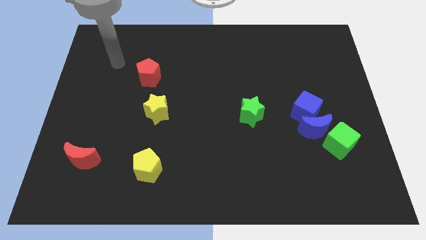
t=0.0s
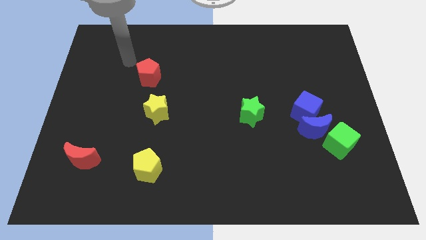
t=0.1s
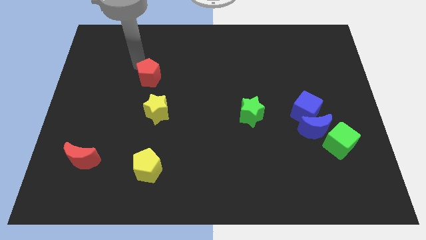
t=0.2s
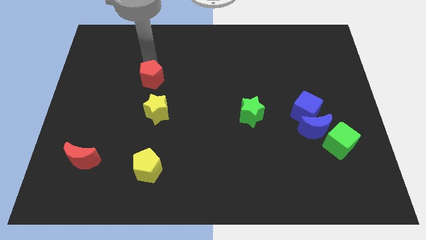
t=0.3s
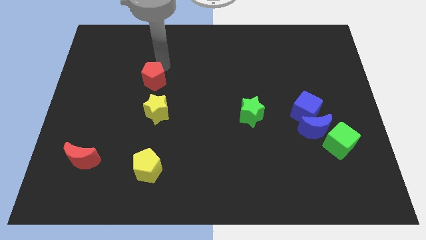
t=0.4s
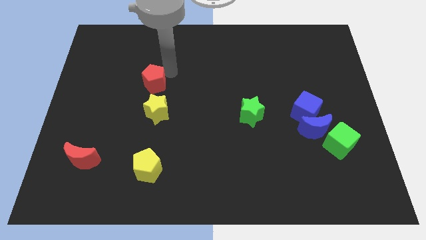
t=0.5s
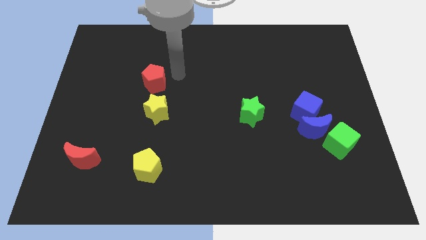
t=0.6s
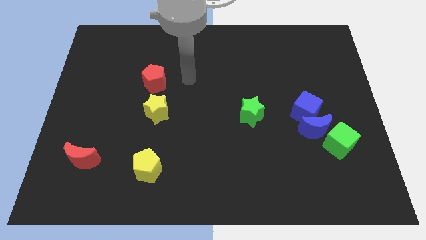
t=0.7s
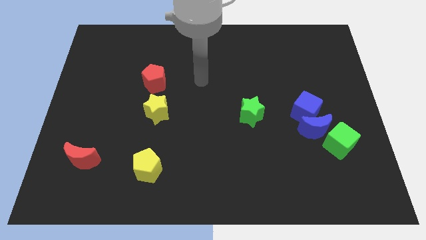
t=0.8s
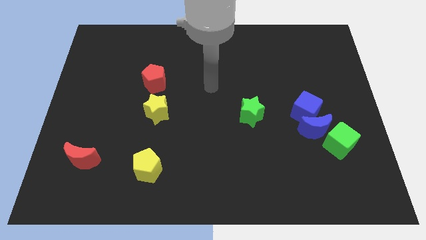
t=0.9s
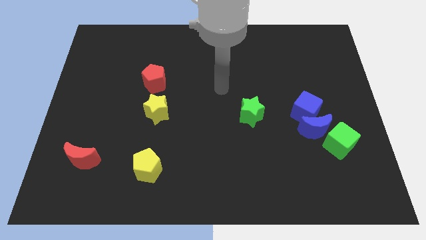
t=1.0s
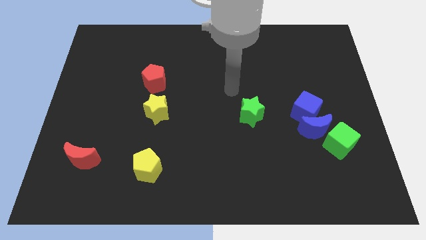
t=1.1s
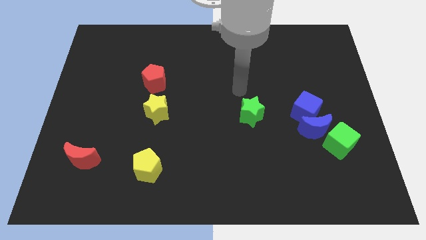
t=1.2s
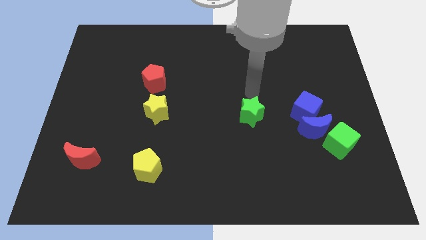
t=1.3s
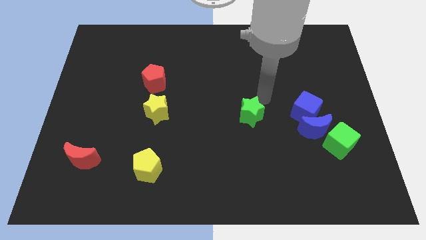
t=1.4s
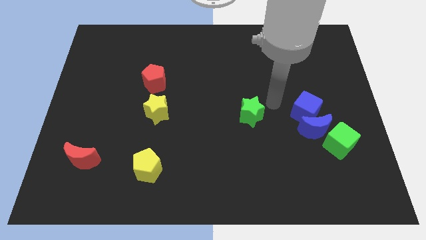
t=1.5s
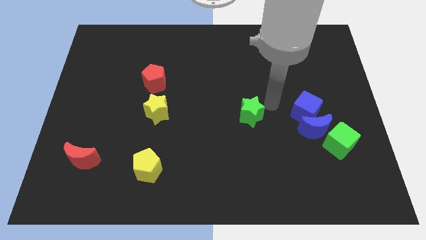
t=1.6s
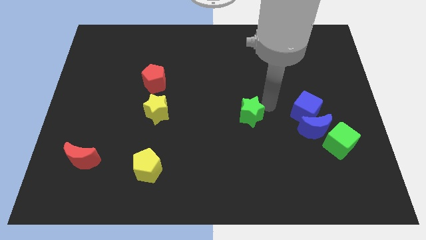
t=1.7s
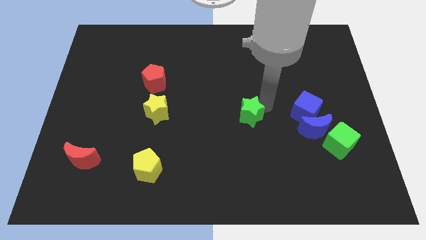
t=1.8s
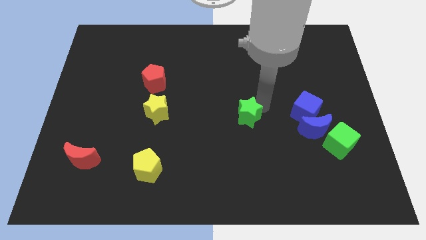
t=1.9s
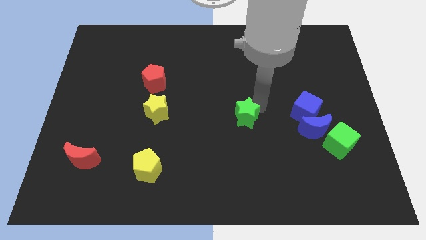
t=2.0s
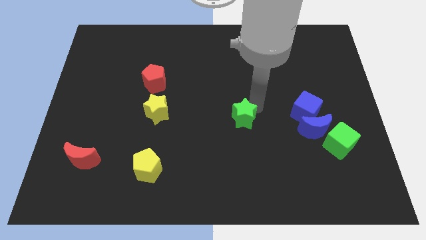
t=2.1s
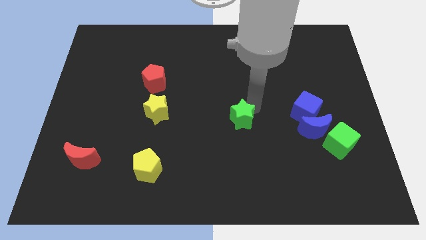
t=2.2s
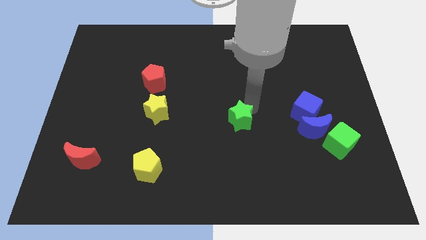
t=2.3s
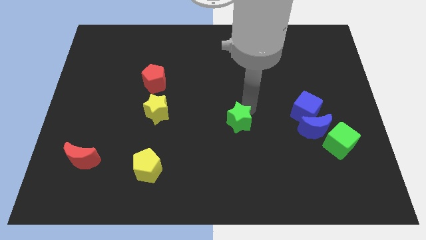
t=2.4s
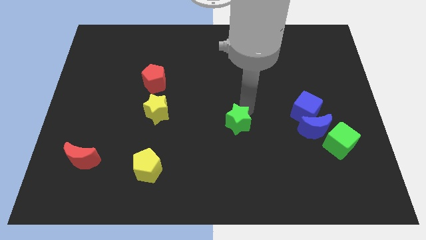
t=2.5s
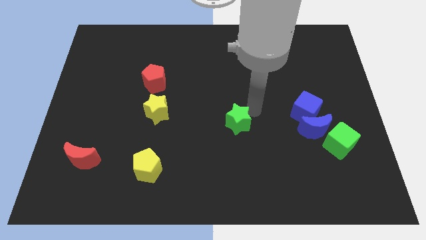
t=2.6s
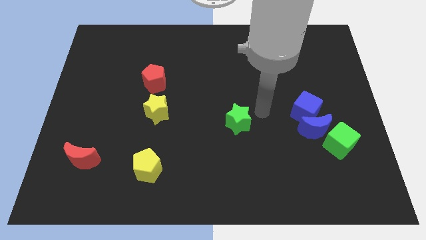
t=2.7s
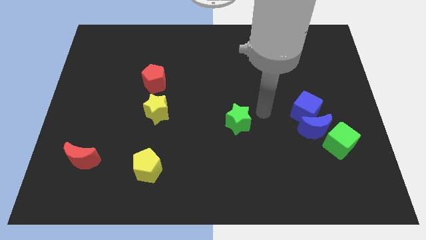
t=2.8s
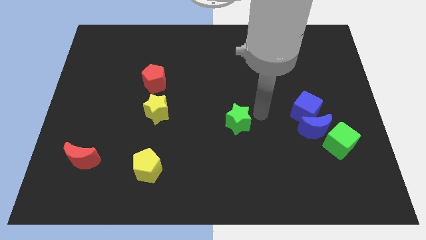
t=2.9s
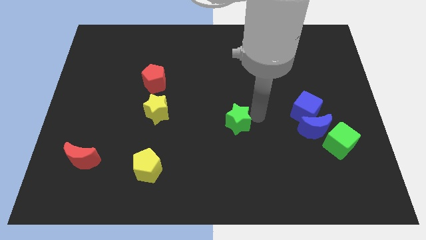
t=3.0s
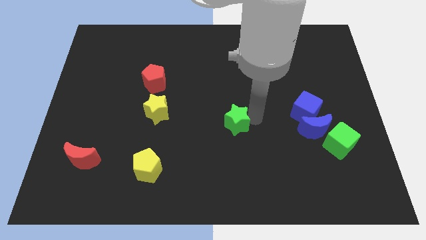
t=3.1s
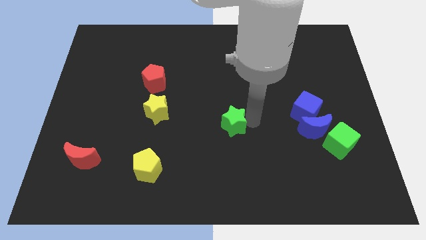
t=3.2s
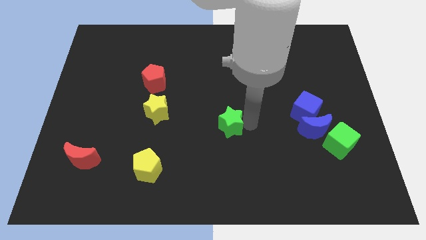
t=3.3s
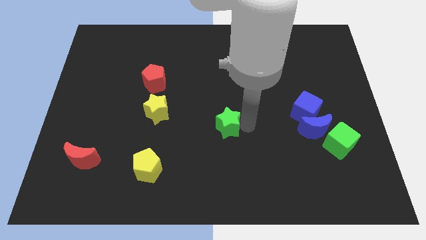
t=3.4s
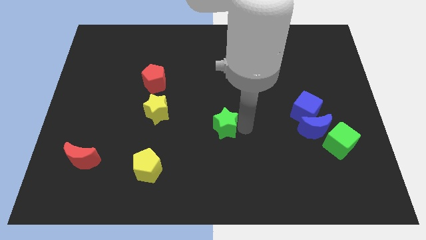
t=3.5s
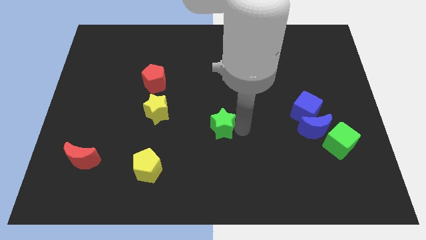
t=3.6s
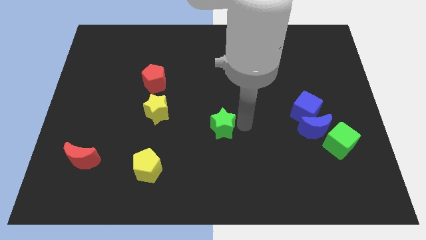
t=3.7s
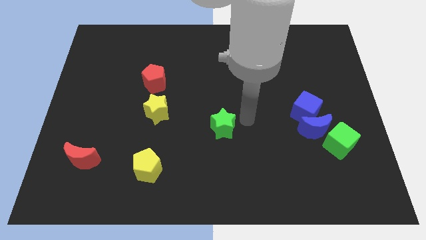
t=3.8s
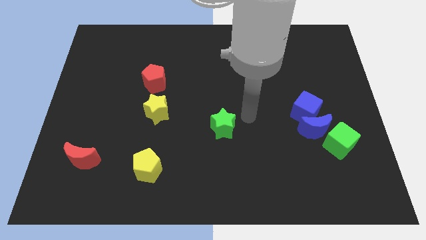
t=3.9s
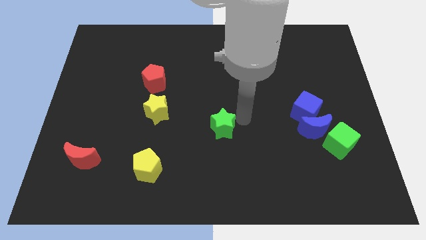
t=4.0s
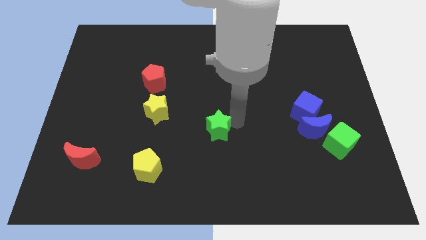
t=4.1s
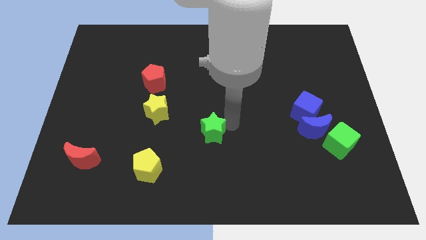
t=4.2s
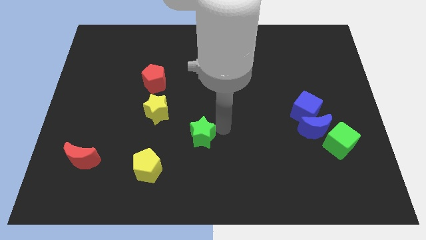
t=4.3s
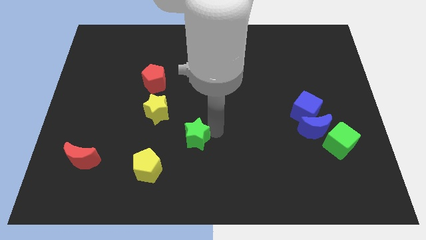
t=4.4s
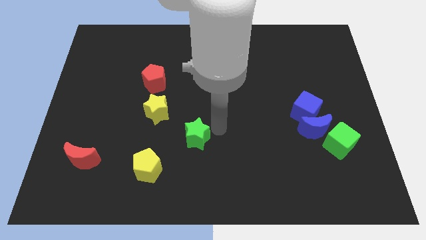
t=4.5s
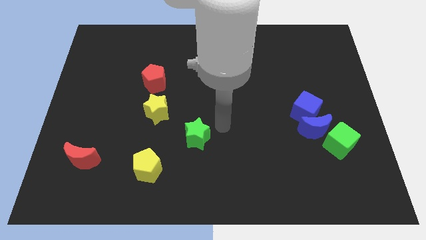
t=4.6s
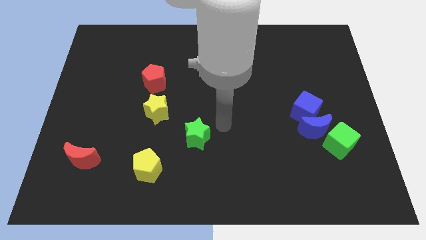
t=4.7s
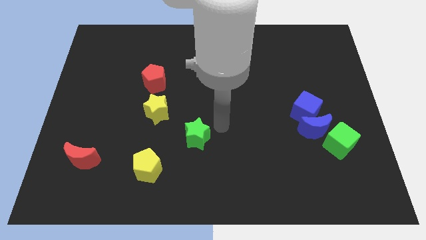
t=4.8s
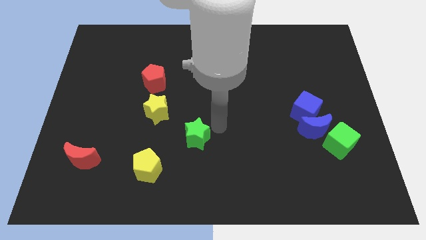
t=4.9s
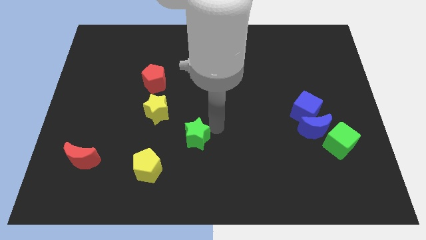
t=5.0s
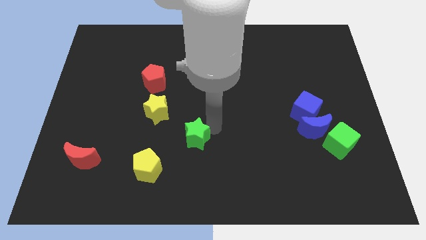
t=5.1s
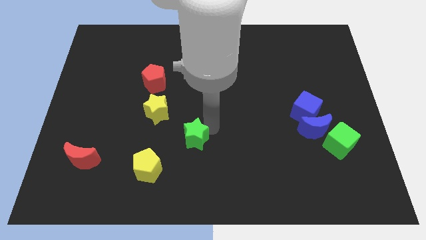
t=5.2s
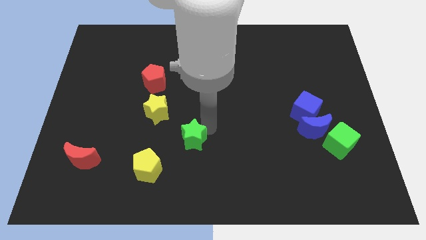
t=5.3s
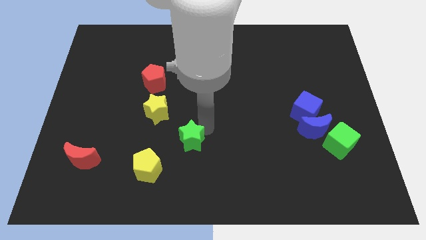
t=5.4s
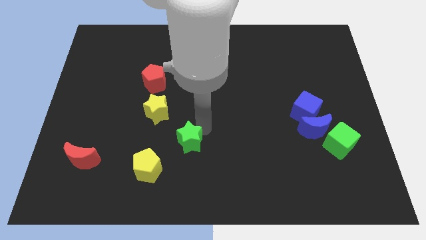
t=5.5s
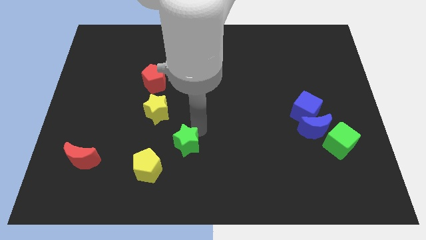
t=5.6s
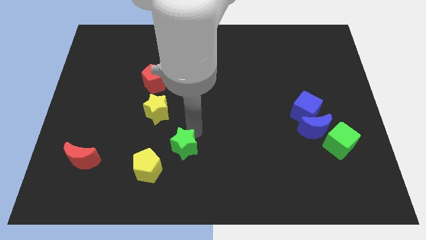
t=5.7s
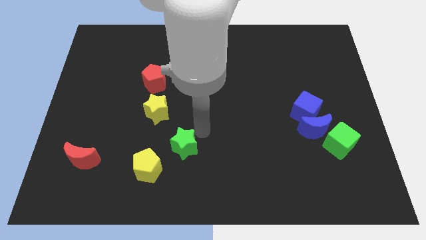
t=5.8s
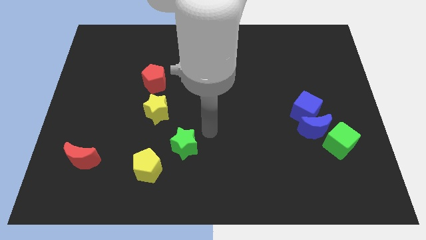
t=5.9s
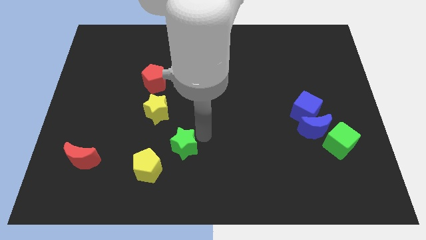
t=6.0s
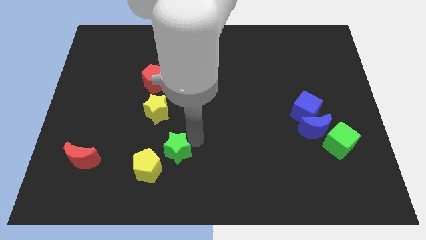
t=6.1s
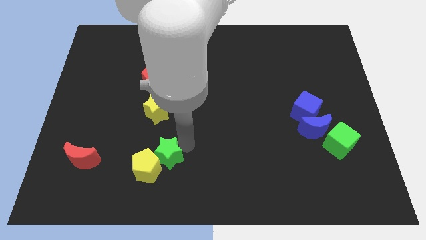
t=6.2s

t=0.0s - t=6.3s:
put the green star to the yellow pentagon
